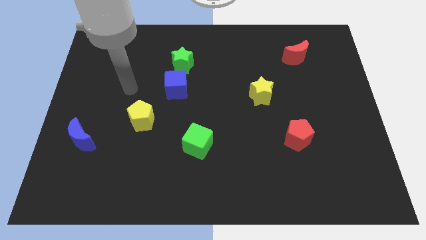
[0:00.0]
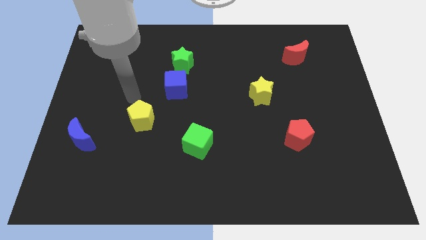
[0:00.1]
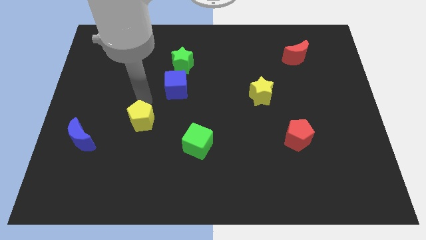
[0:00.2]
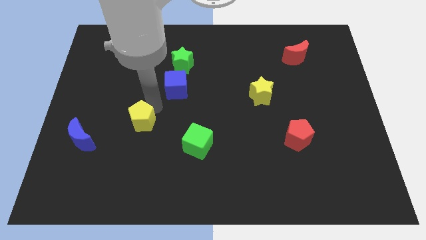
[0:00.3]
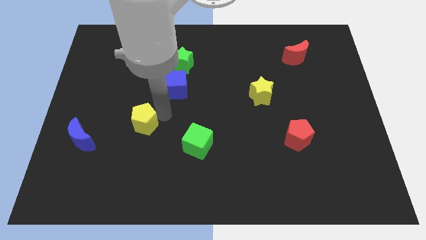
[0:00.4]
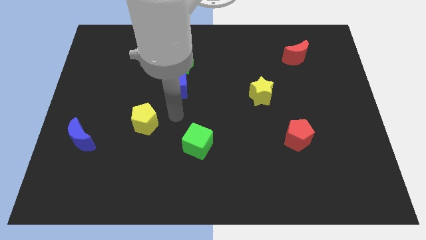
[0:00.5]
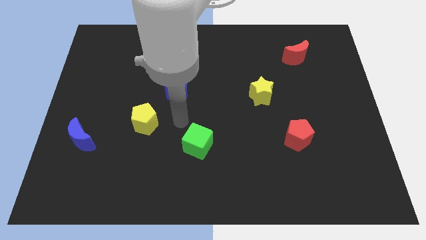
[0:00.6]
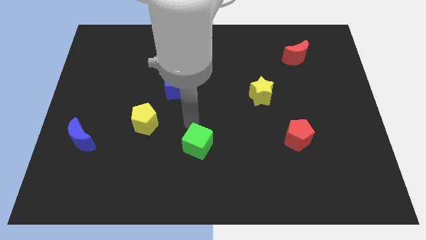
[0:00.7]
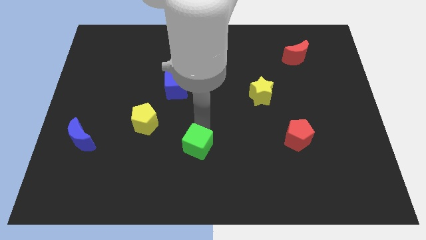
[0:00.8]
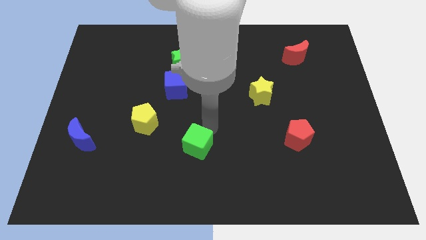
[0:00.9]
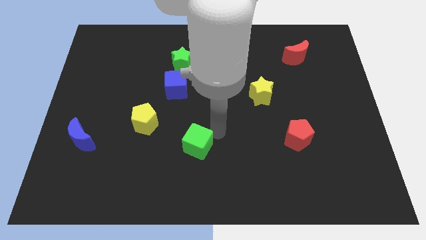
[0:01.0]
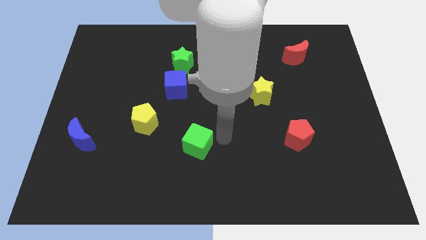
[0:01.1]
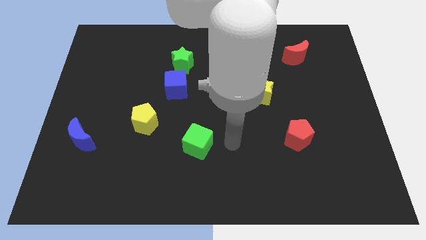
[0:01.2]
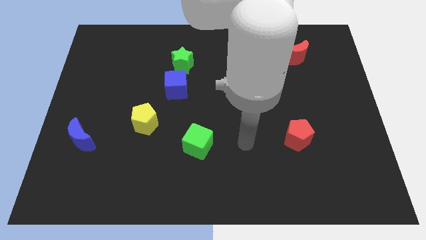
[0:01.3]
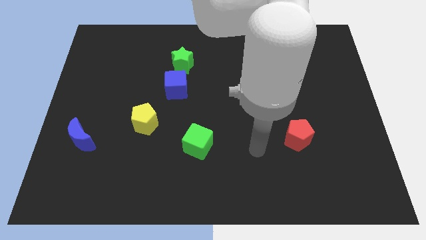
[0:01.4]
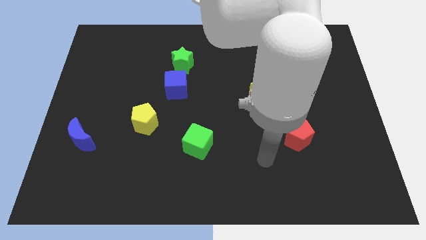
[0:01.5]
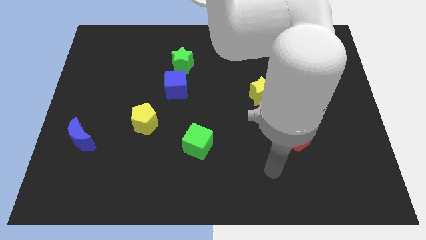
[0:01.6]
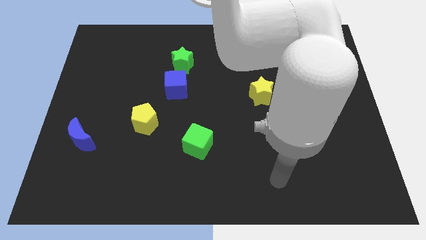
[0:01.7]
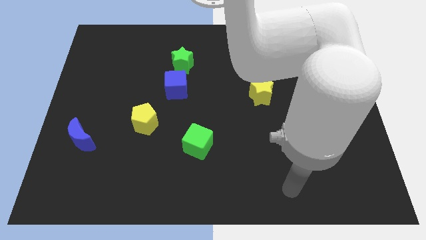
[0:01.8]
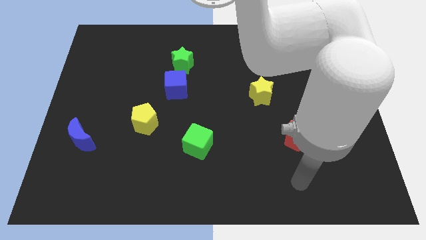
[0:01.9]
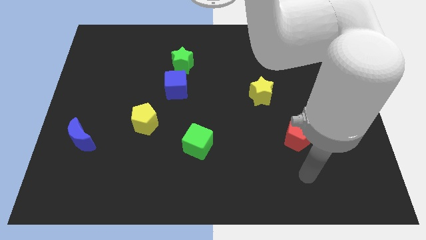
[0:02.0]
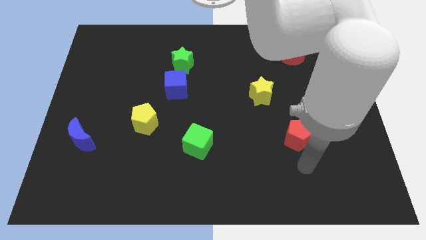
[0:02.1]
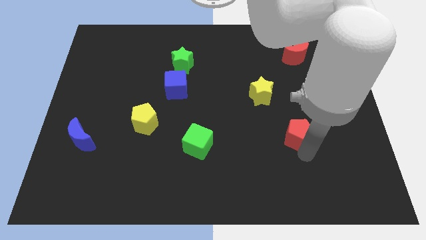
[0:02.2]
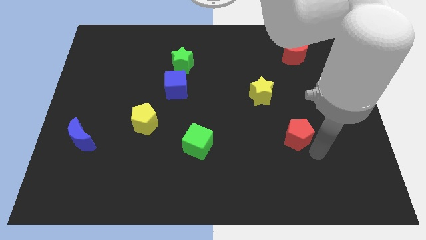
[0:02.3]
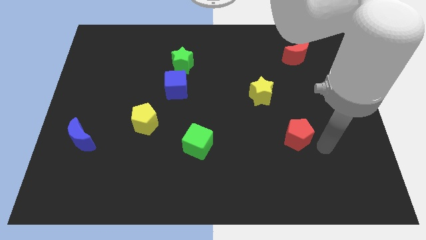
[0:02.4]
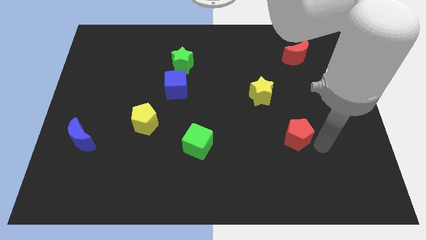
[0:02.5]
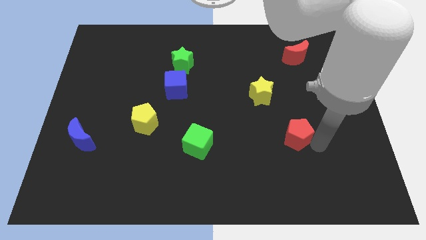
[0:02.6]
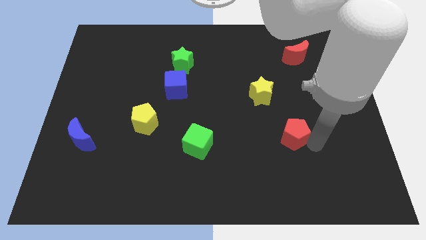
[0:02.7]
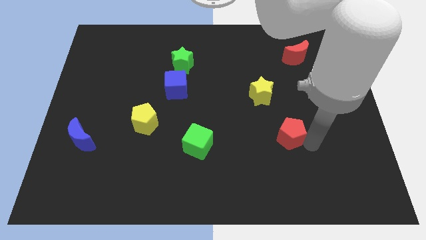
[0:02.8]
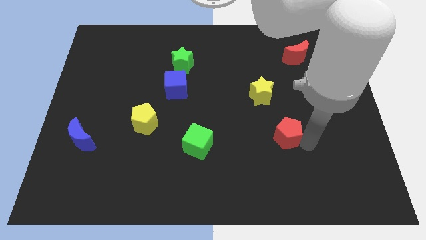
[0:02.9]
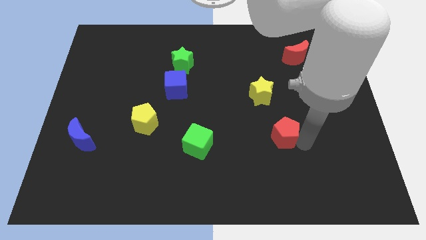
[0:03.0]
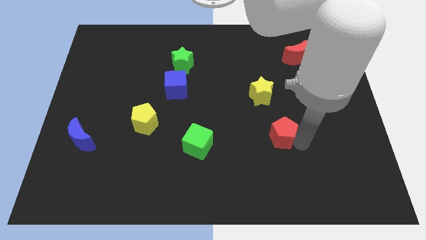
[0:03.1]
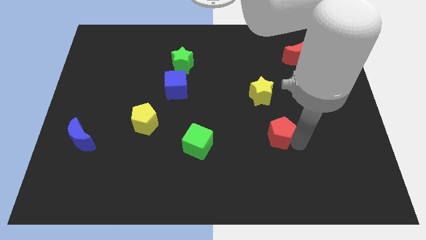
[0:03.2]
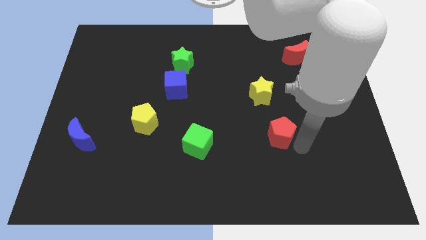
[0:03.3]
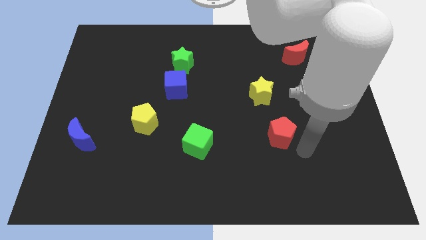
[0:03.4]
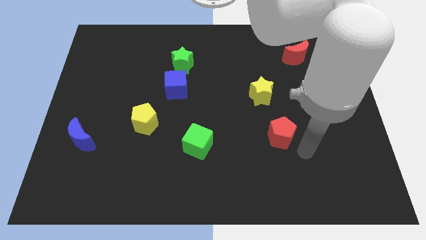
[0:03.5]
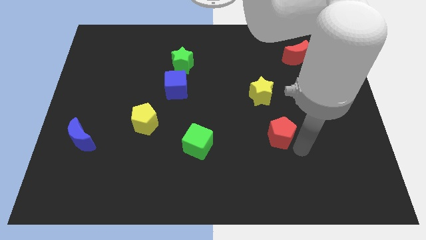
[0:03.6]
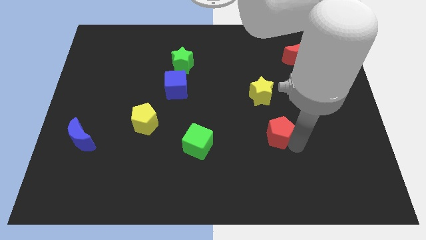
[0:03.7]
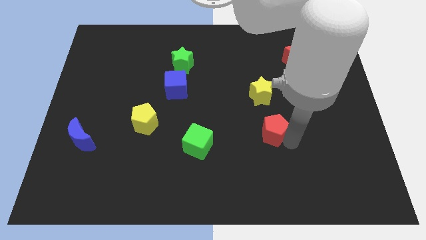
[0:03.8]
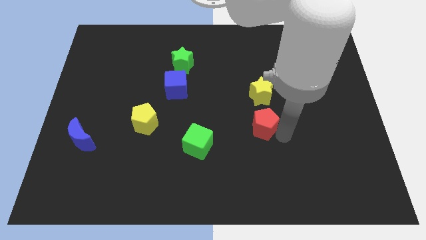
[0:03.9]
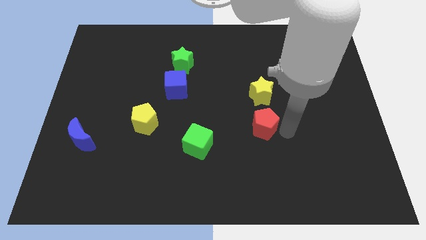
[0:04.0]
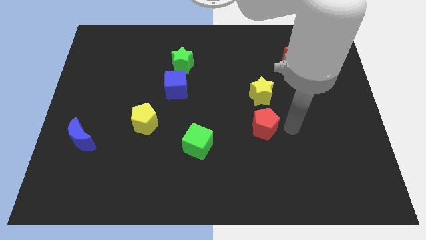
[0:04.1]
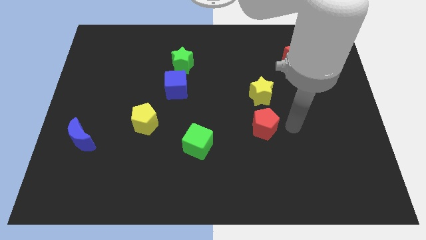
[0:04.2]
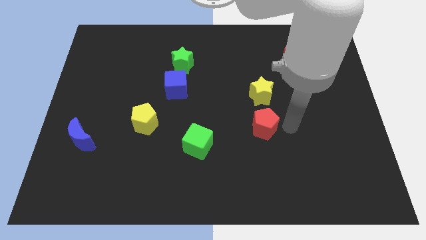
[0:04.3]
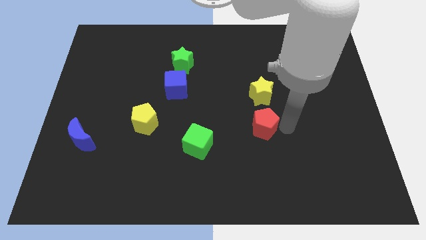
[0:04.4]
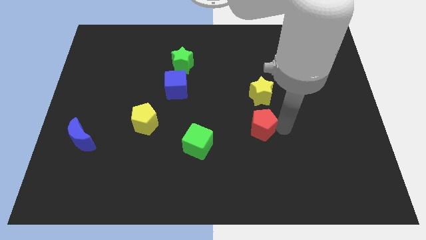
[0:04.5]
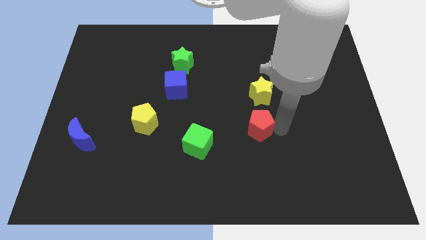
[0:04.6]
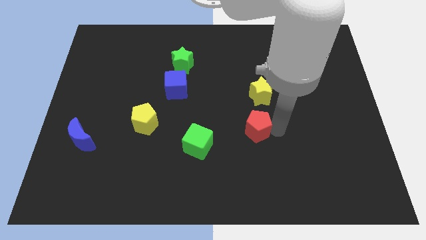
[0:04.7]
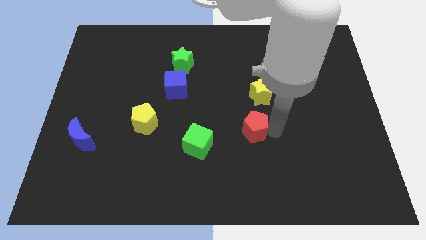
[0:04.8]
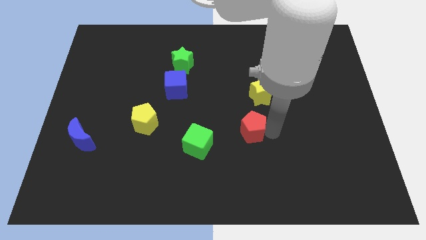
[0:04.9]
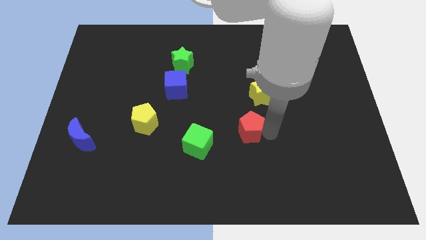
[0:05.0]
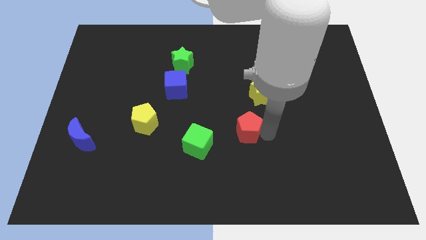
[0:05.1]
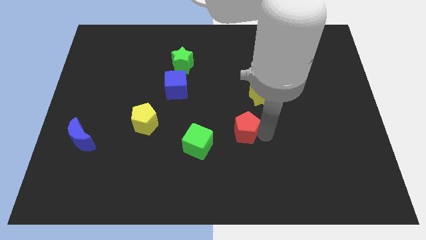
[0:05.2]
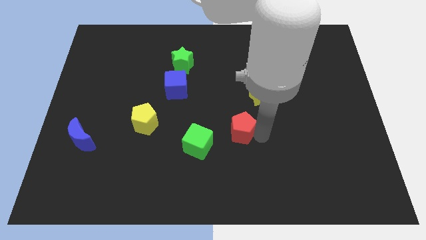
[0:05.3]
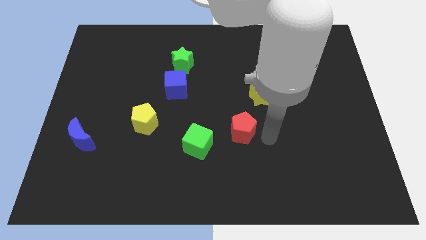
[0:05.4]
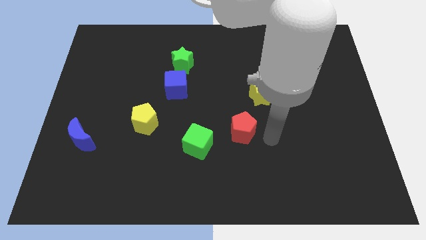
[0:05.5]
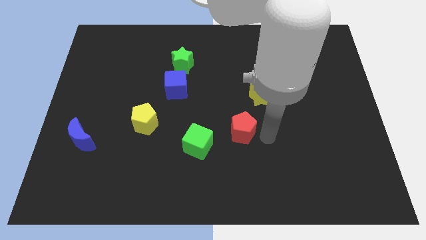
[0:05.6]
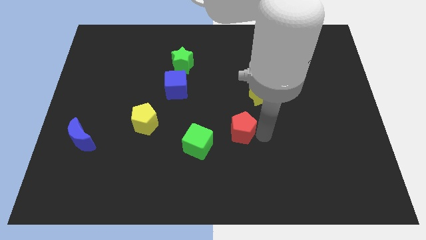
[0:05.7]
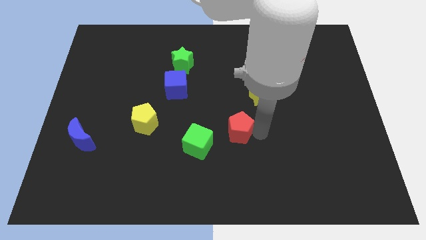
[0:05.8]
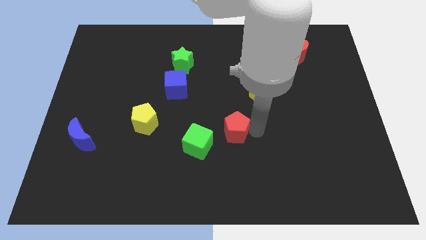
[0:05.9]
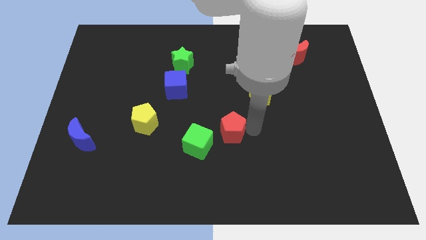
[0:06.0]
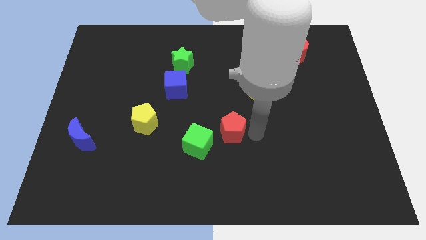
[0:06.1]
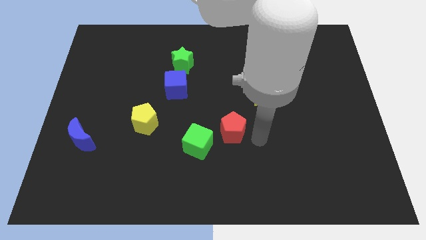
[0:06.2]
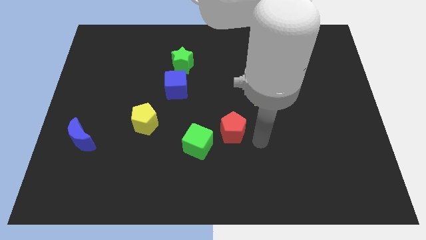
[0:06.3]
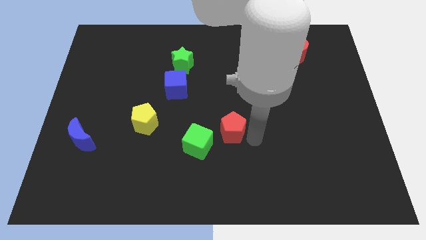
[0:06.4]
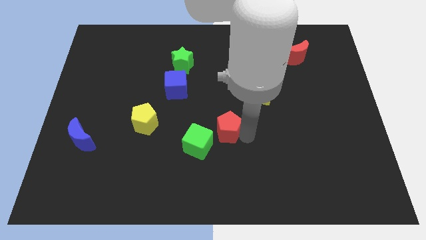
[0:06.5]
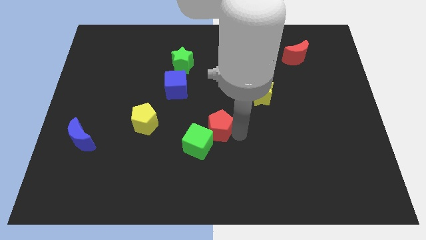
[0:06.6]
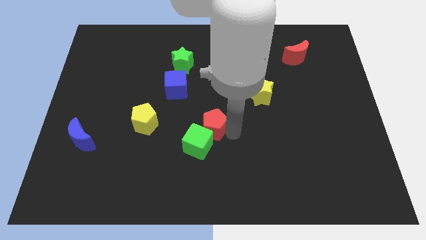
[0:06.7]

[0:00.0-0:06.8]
put the red pentagon just right of the yellow pentagon
